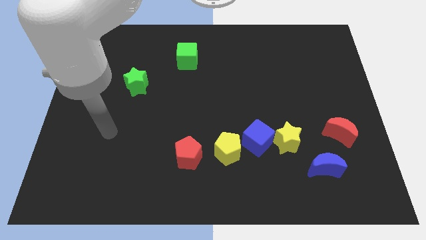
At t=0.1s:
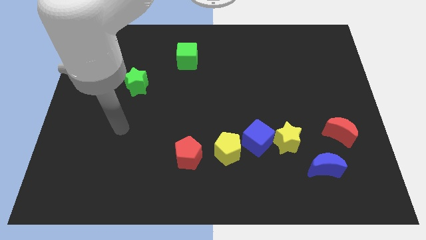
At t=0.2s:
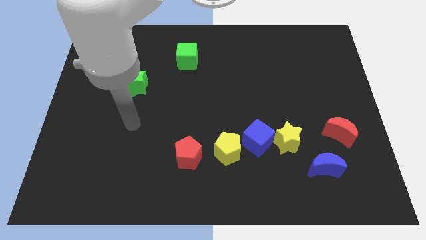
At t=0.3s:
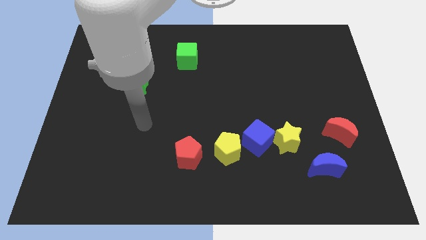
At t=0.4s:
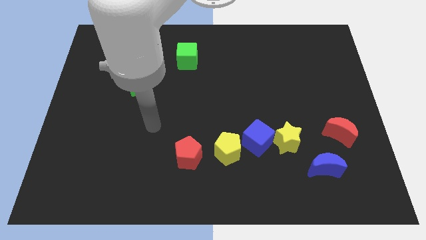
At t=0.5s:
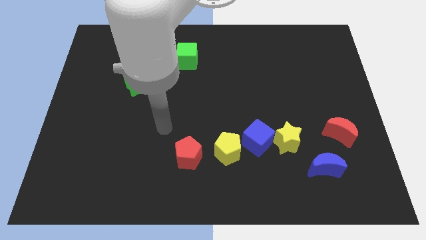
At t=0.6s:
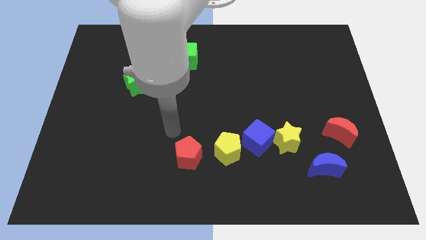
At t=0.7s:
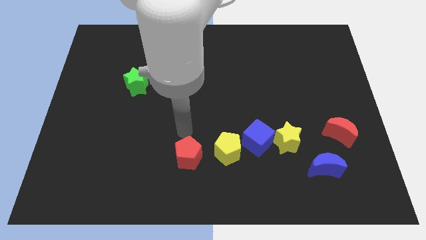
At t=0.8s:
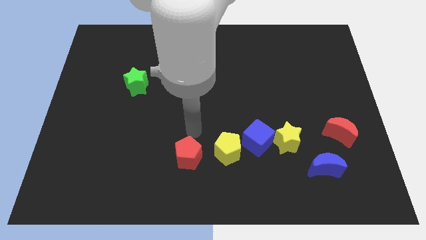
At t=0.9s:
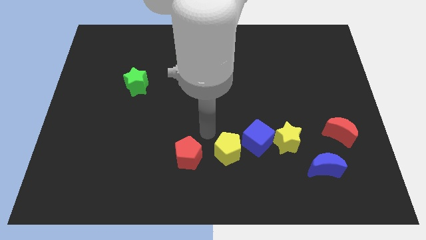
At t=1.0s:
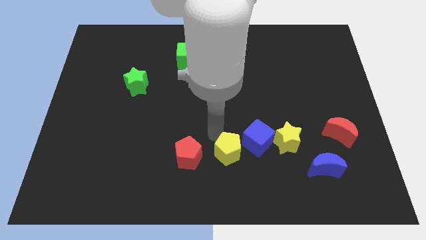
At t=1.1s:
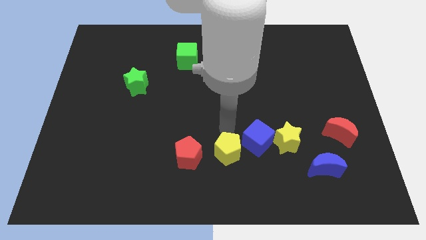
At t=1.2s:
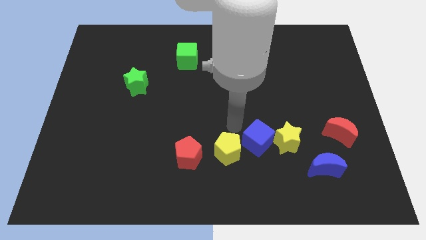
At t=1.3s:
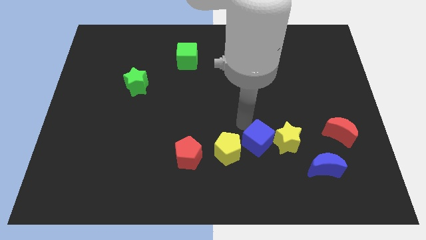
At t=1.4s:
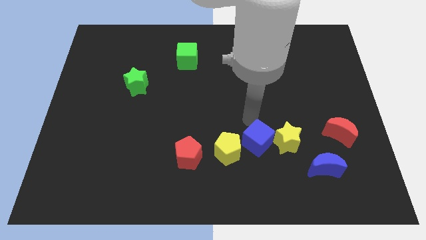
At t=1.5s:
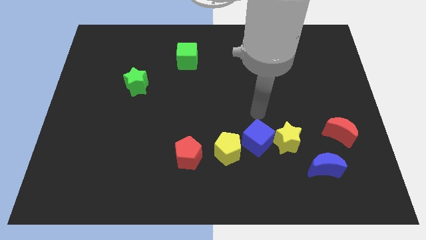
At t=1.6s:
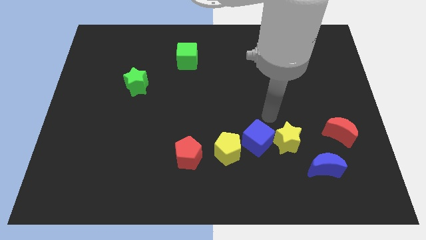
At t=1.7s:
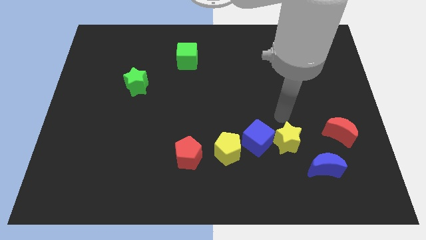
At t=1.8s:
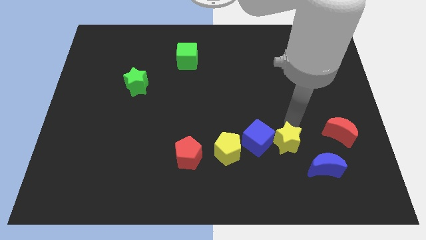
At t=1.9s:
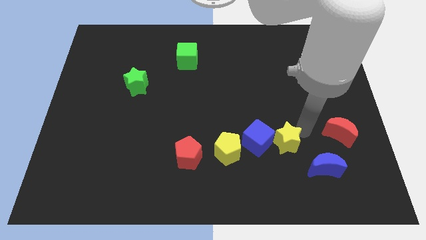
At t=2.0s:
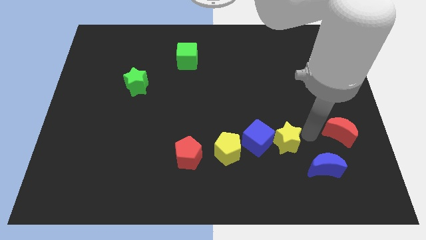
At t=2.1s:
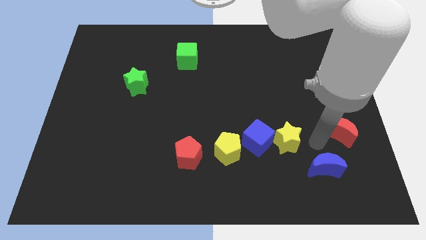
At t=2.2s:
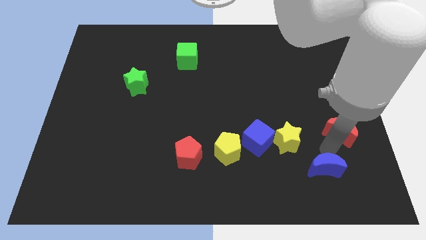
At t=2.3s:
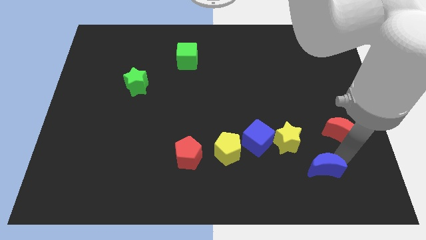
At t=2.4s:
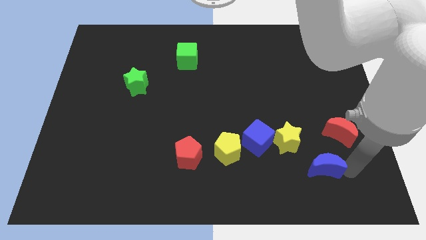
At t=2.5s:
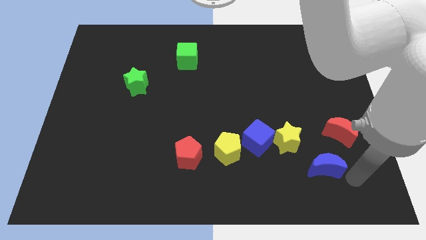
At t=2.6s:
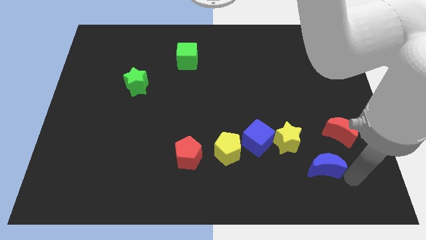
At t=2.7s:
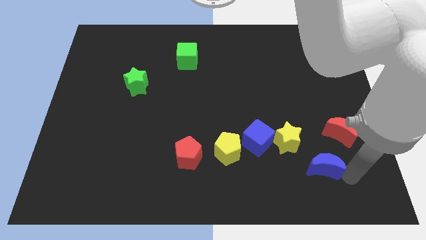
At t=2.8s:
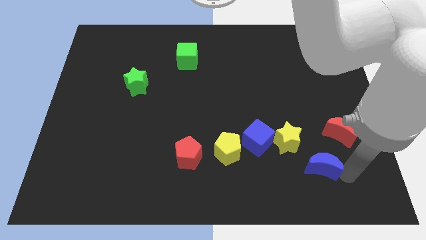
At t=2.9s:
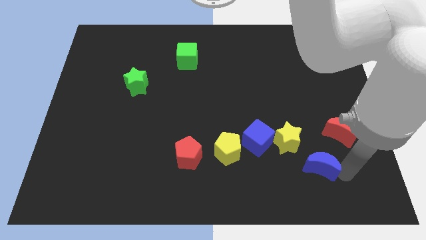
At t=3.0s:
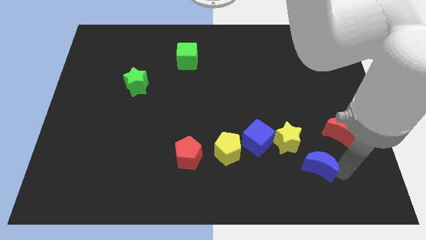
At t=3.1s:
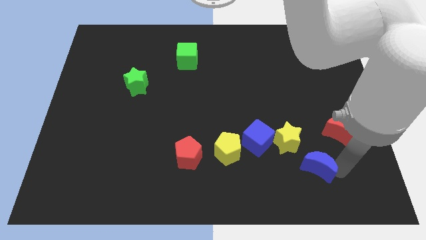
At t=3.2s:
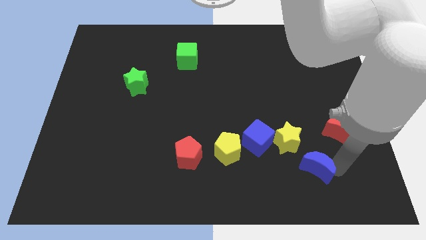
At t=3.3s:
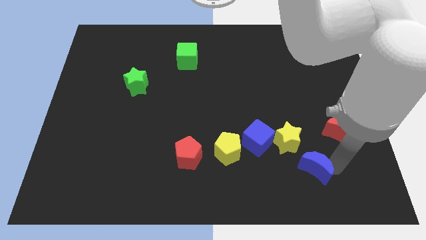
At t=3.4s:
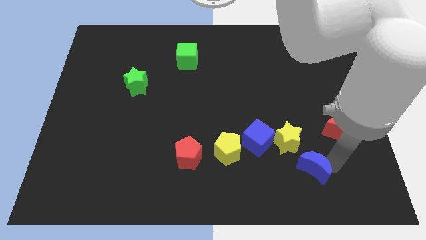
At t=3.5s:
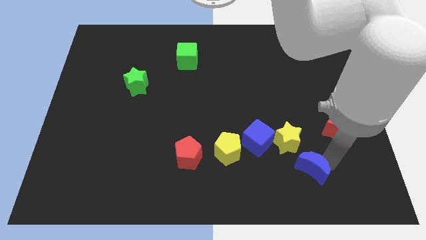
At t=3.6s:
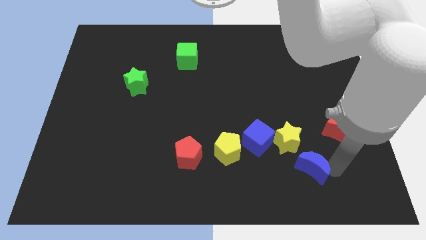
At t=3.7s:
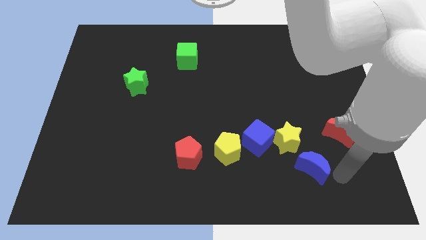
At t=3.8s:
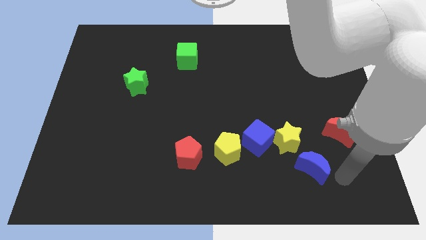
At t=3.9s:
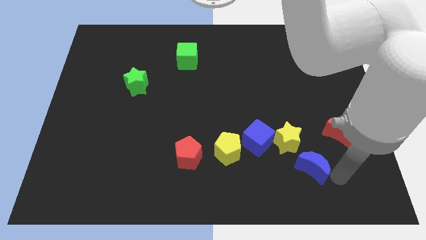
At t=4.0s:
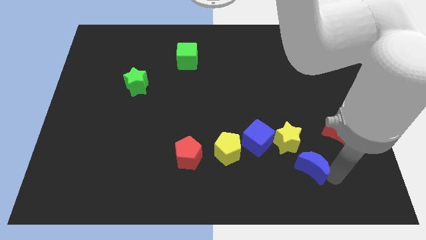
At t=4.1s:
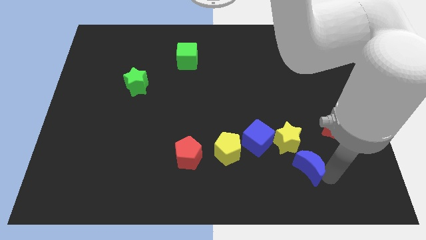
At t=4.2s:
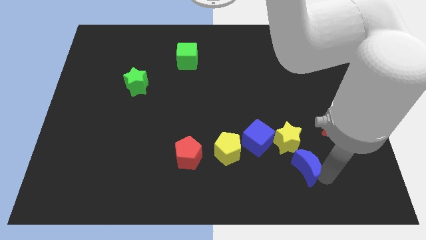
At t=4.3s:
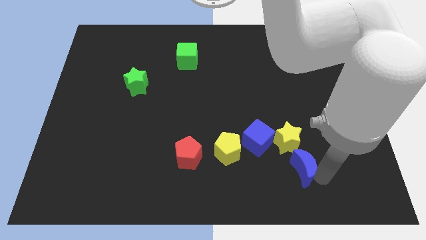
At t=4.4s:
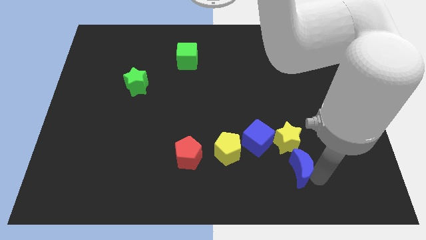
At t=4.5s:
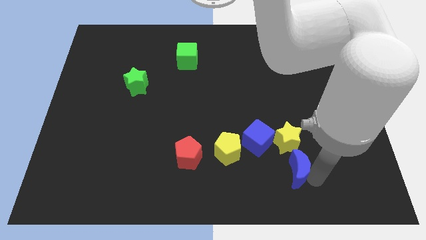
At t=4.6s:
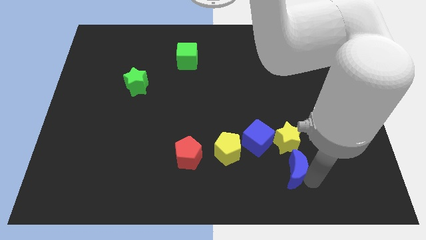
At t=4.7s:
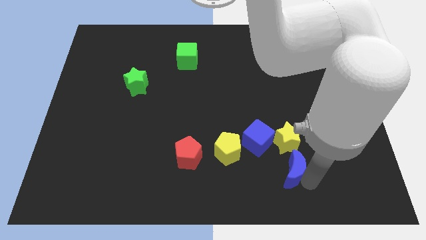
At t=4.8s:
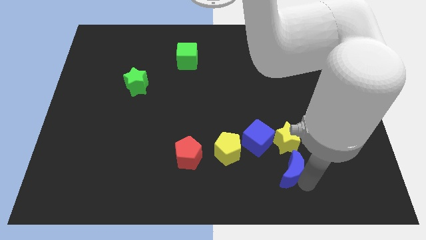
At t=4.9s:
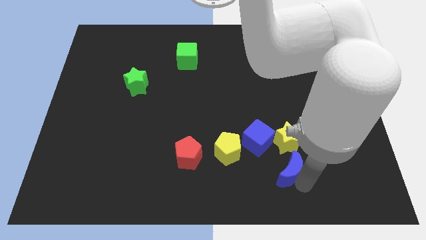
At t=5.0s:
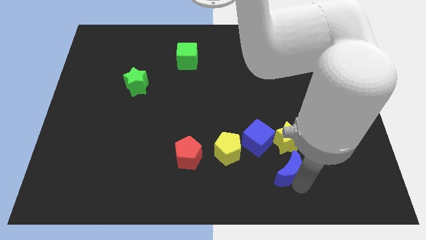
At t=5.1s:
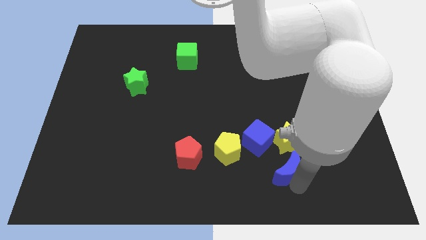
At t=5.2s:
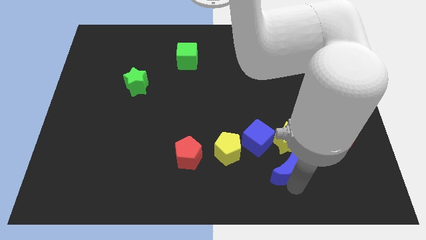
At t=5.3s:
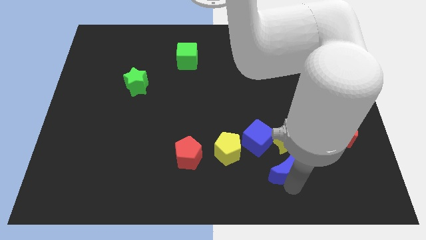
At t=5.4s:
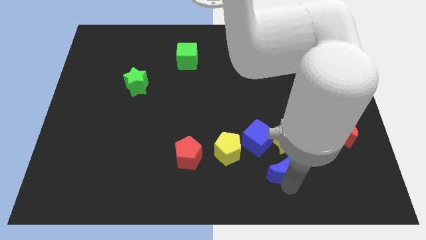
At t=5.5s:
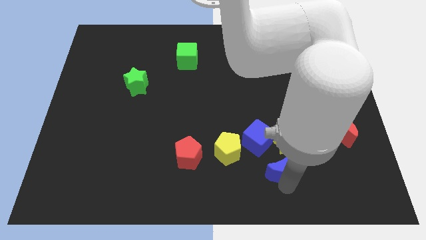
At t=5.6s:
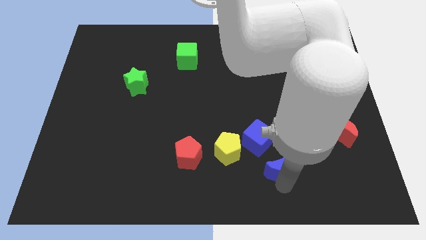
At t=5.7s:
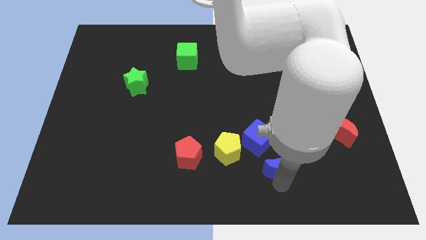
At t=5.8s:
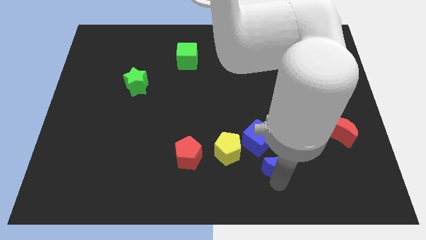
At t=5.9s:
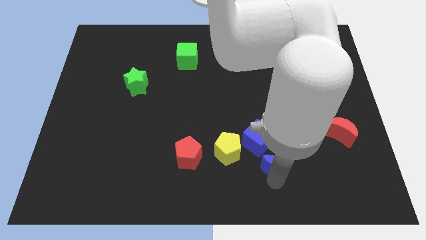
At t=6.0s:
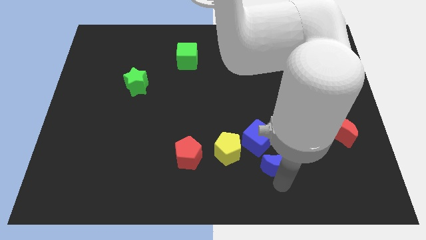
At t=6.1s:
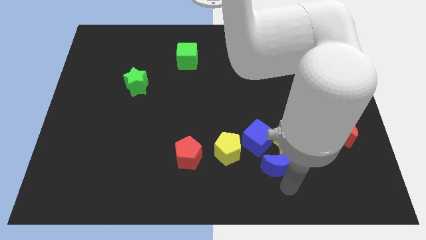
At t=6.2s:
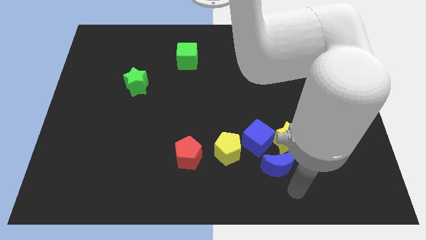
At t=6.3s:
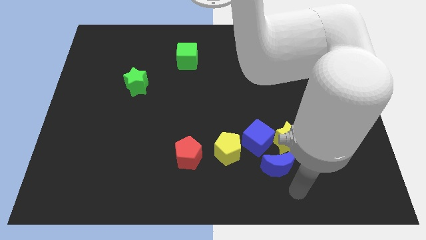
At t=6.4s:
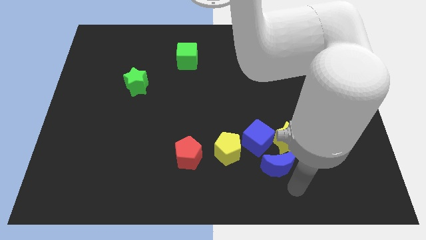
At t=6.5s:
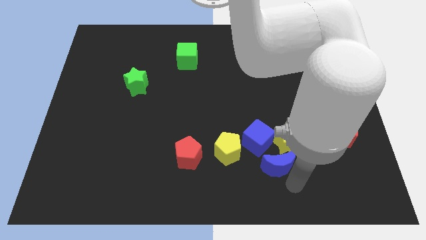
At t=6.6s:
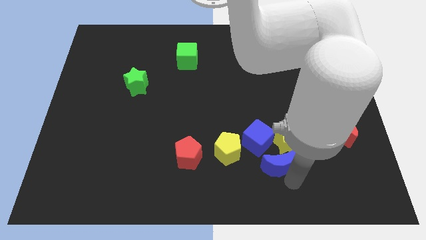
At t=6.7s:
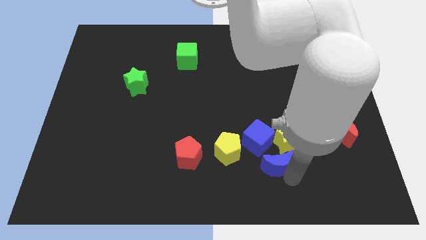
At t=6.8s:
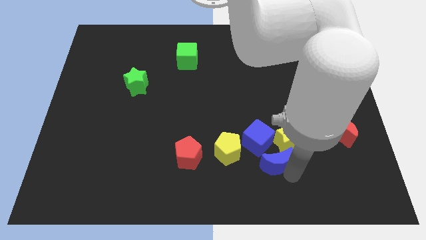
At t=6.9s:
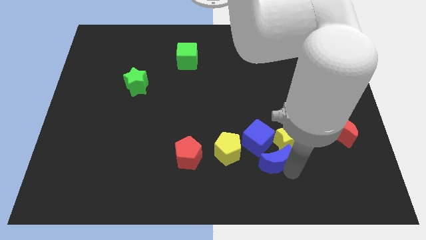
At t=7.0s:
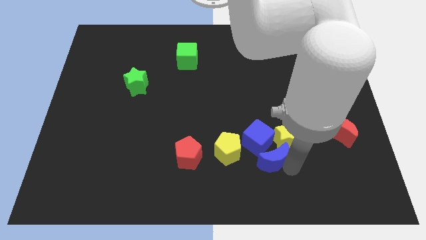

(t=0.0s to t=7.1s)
put the blue moon towards the blue cube
